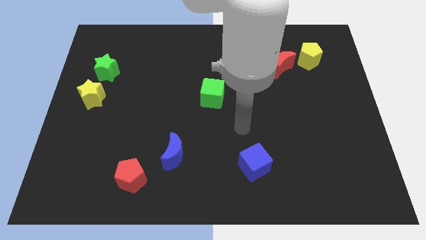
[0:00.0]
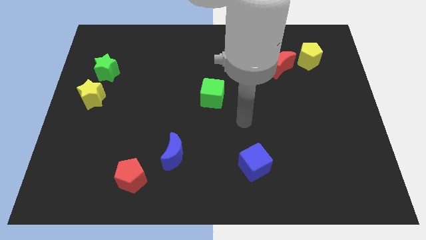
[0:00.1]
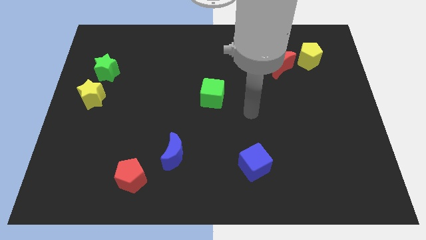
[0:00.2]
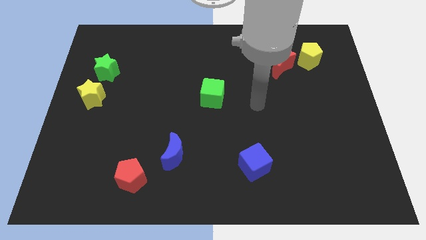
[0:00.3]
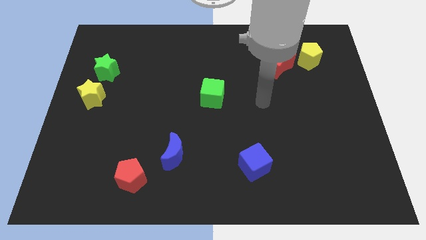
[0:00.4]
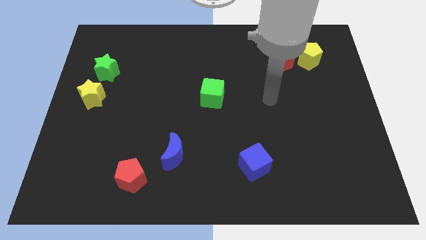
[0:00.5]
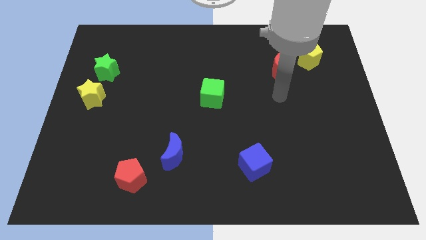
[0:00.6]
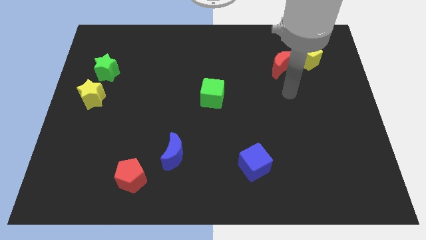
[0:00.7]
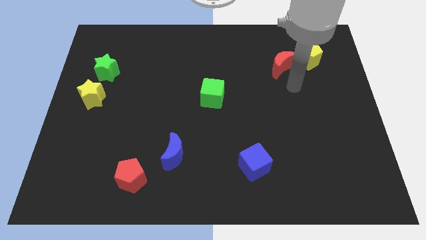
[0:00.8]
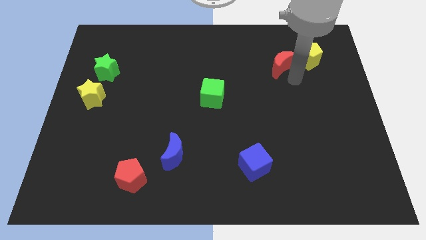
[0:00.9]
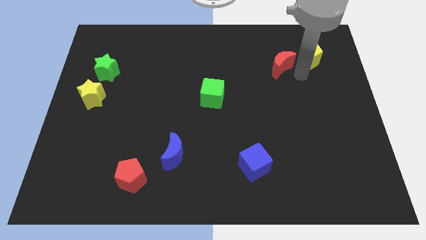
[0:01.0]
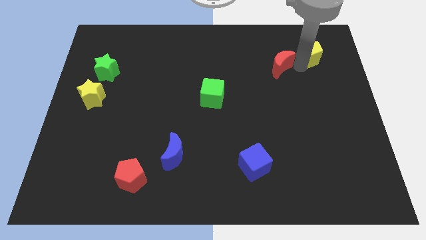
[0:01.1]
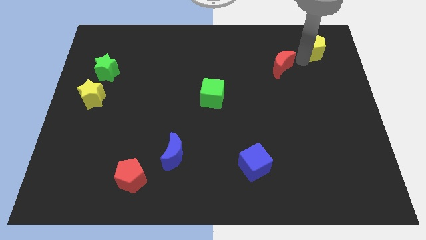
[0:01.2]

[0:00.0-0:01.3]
pull the red moon apart from the yellow pentagon

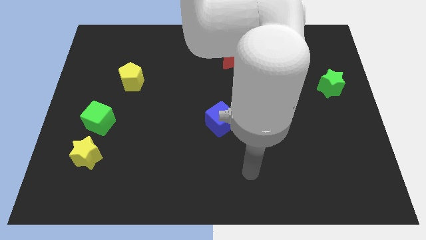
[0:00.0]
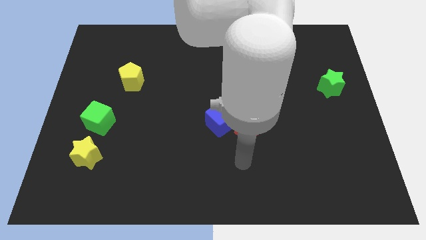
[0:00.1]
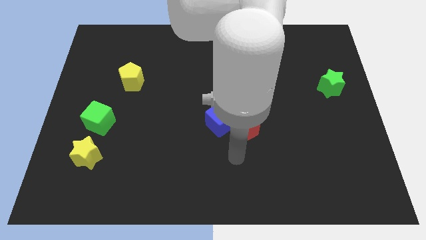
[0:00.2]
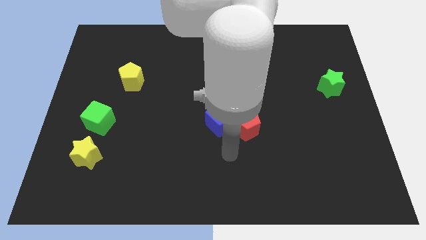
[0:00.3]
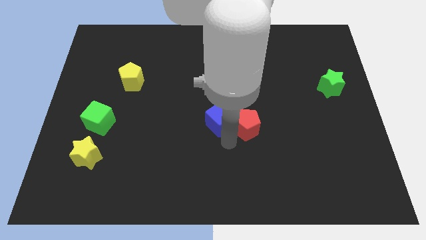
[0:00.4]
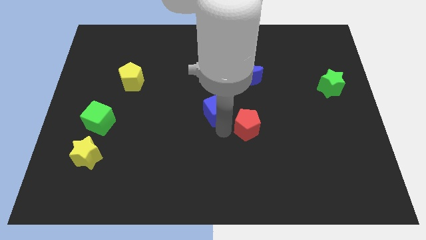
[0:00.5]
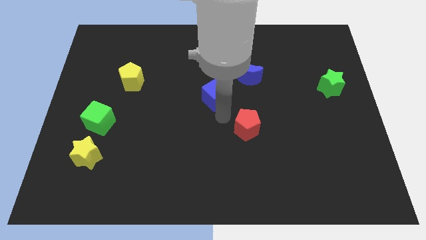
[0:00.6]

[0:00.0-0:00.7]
move the red pentagon away from the blue cube

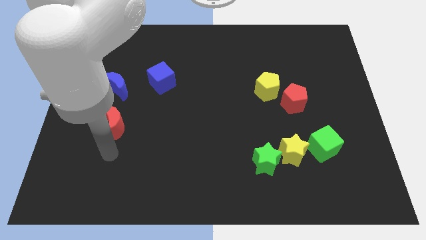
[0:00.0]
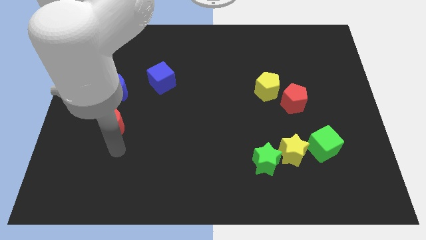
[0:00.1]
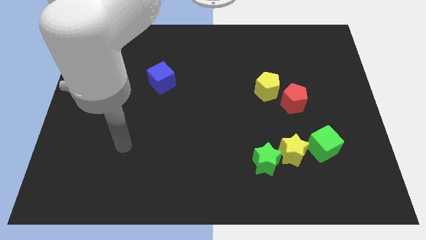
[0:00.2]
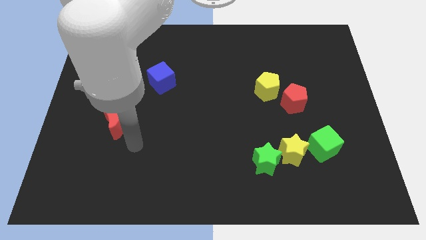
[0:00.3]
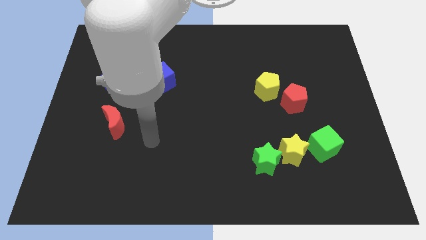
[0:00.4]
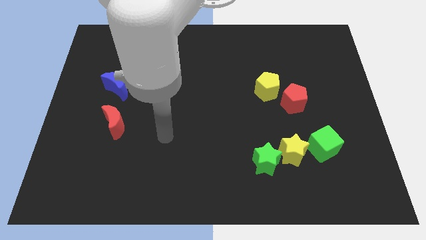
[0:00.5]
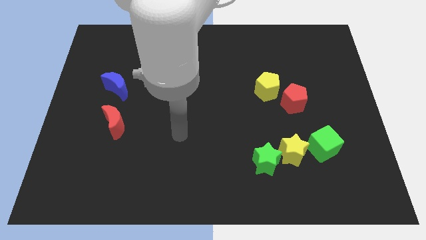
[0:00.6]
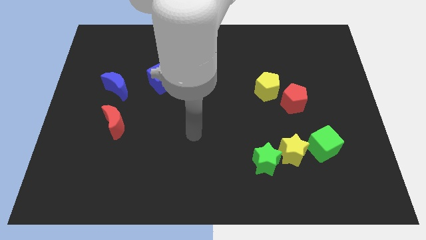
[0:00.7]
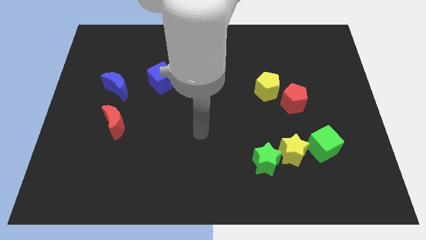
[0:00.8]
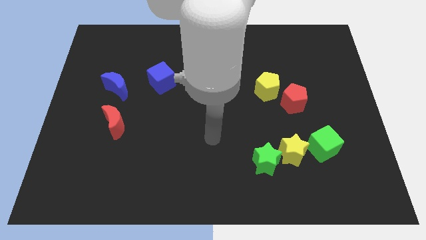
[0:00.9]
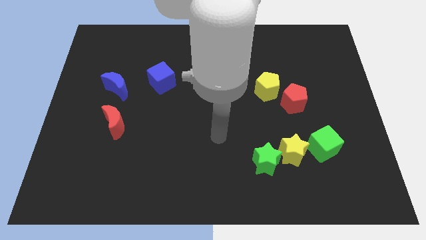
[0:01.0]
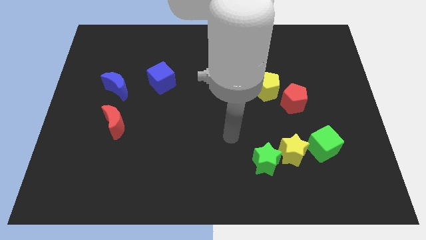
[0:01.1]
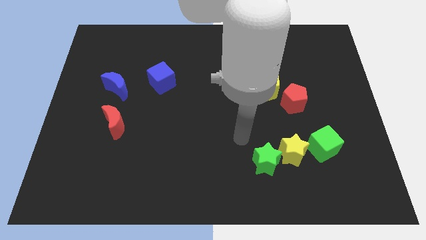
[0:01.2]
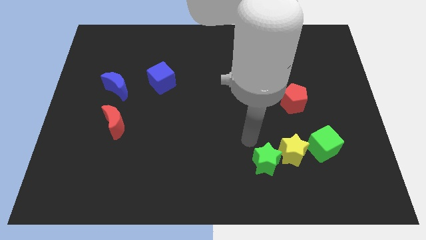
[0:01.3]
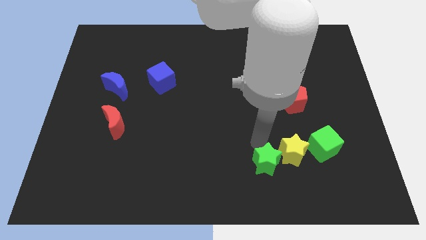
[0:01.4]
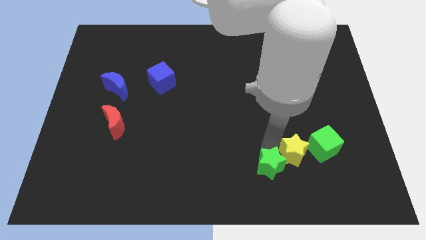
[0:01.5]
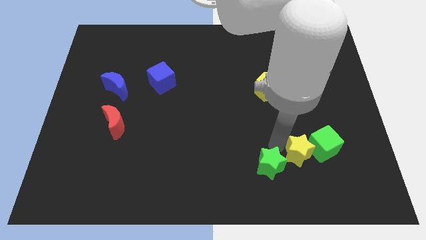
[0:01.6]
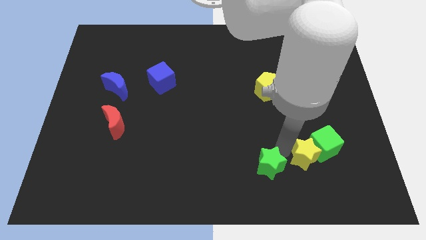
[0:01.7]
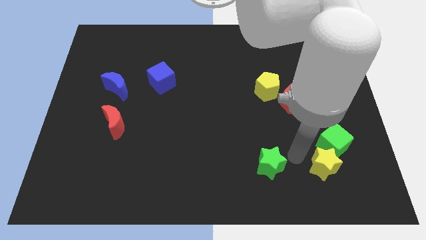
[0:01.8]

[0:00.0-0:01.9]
move the green star away from the yellow star

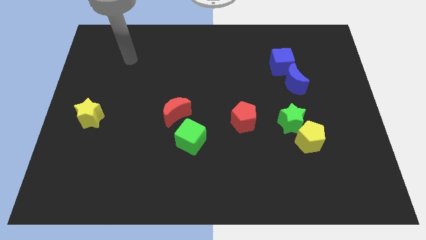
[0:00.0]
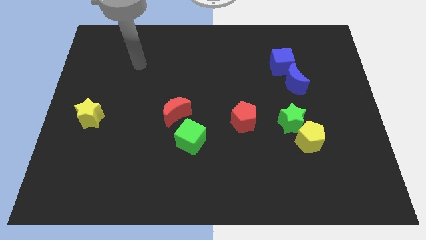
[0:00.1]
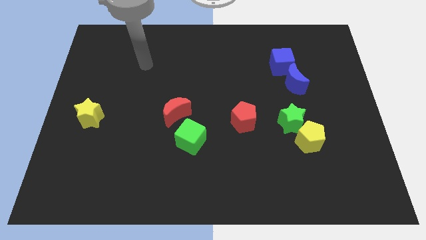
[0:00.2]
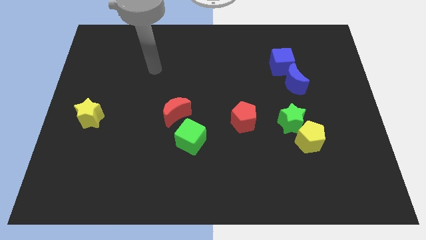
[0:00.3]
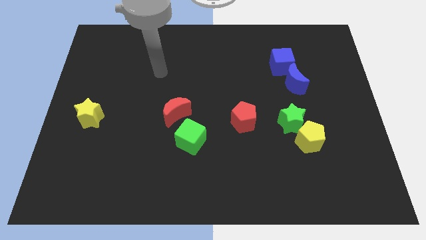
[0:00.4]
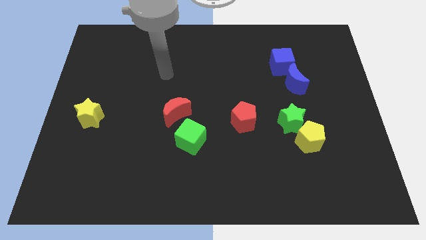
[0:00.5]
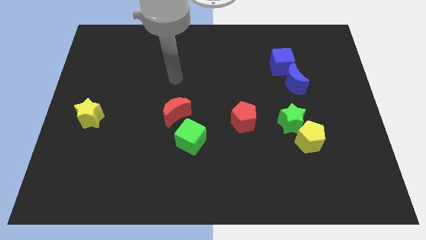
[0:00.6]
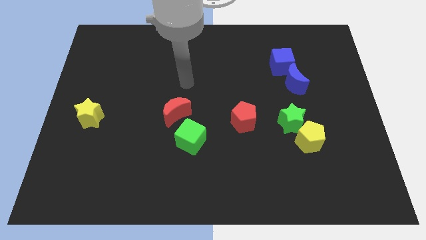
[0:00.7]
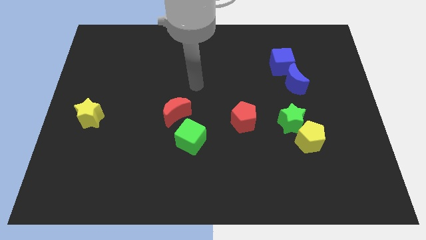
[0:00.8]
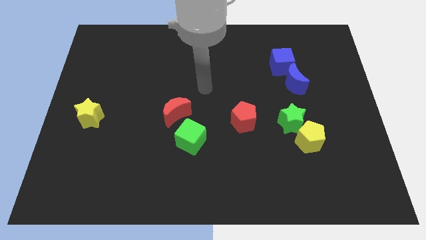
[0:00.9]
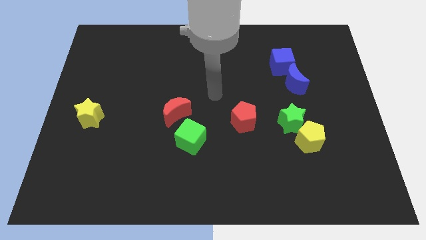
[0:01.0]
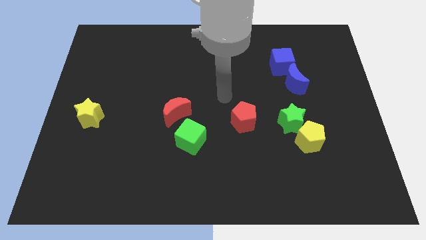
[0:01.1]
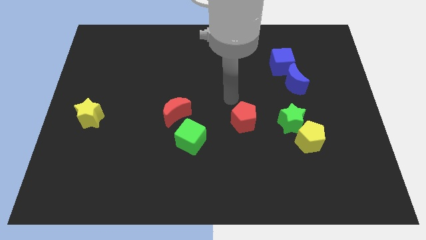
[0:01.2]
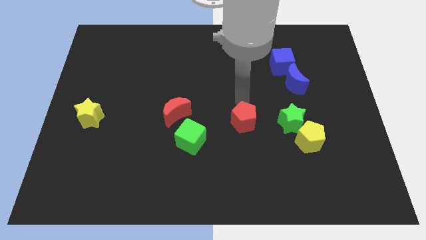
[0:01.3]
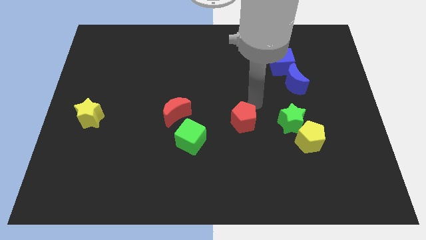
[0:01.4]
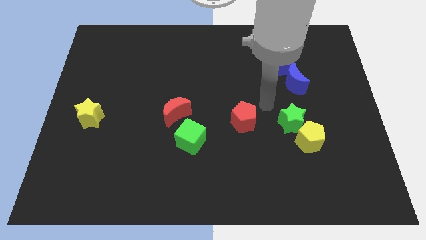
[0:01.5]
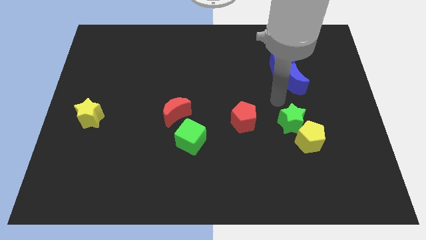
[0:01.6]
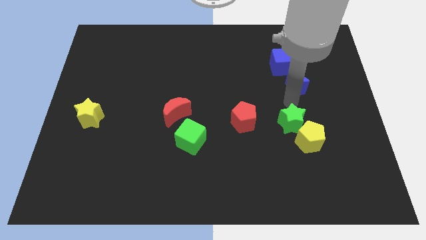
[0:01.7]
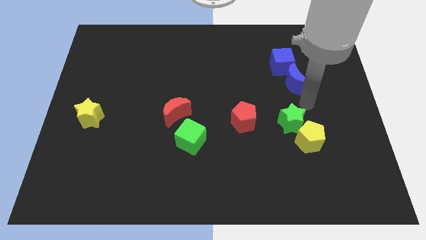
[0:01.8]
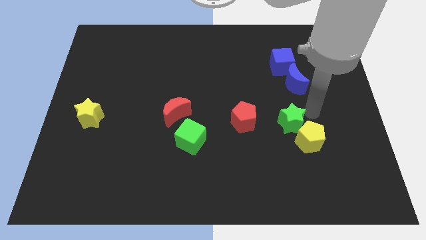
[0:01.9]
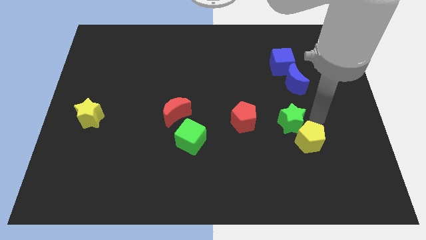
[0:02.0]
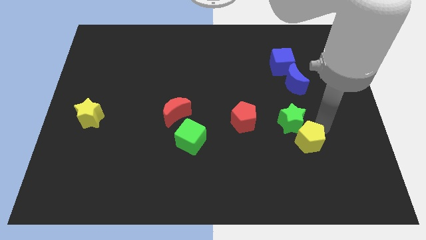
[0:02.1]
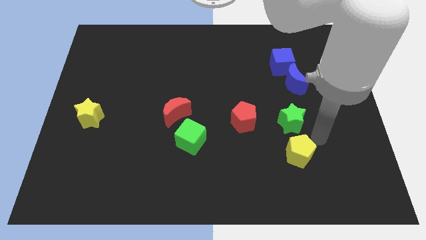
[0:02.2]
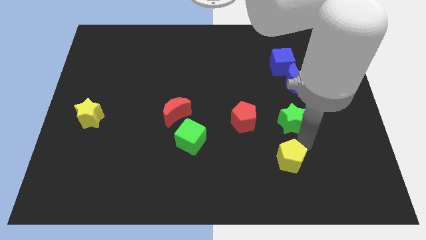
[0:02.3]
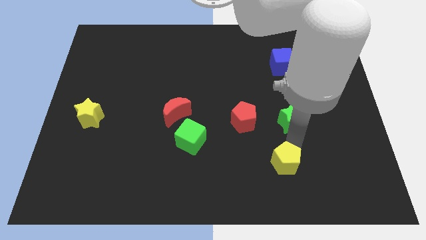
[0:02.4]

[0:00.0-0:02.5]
move the green star away from the yellow pentagon

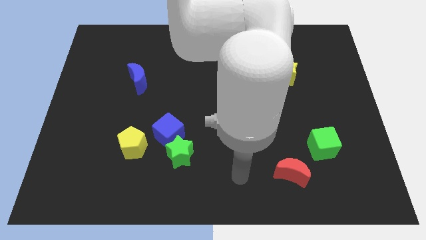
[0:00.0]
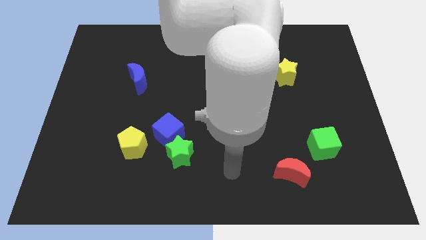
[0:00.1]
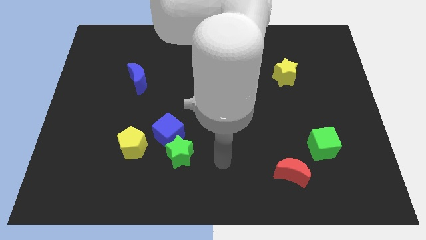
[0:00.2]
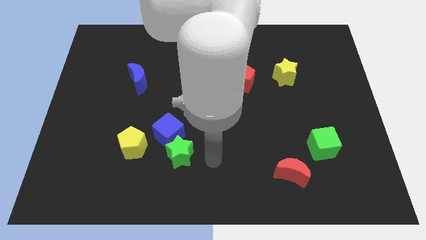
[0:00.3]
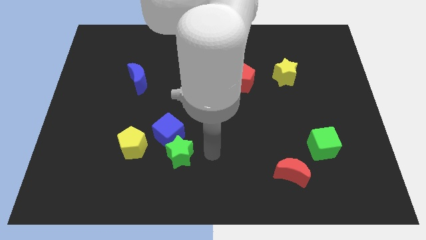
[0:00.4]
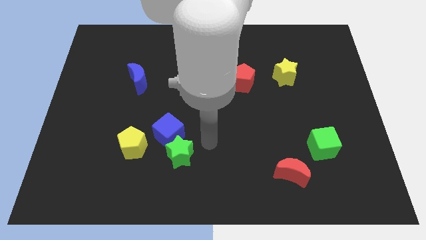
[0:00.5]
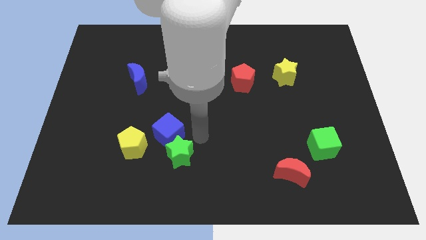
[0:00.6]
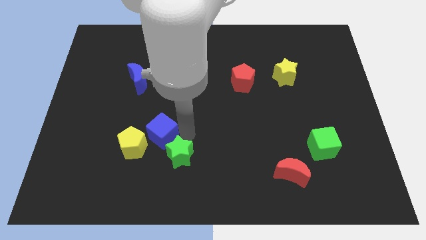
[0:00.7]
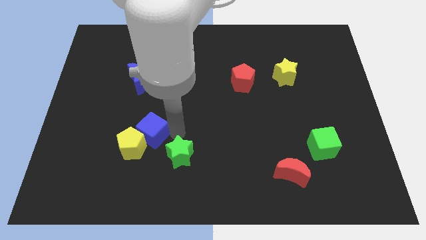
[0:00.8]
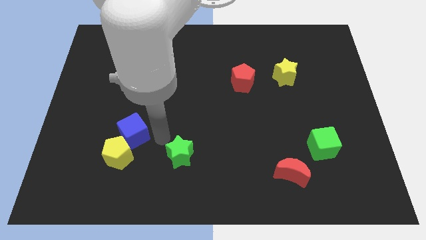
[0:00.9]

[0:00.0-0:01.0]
separate the green star from the blue cube

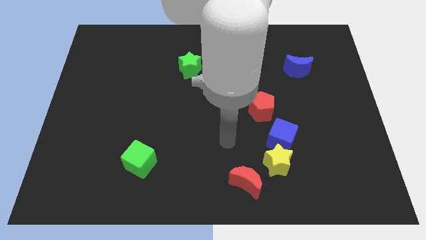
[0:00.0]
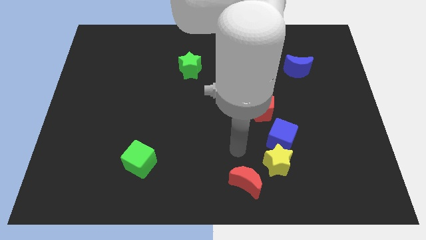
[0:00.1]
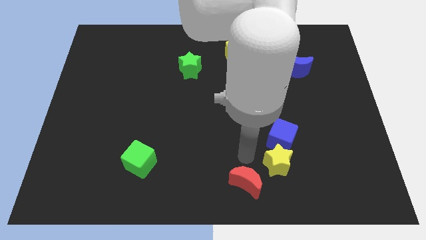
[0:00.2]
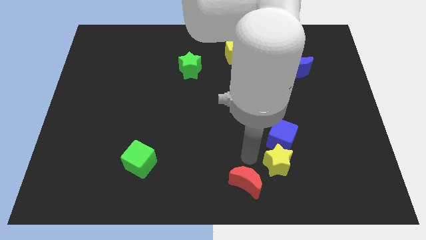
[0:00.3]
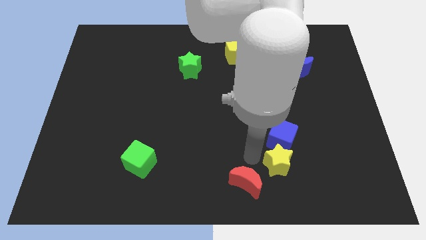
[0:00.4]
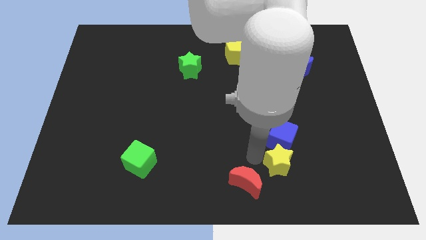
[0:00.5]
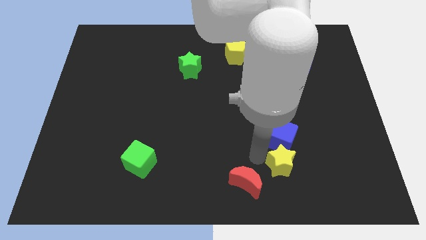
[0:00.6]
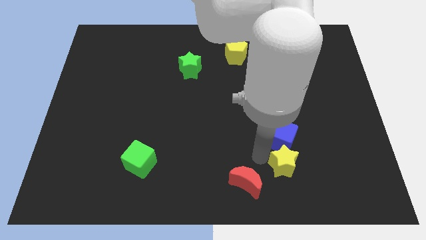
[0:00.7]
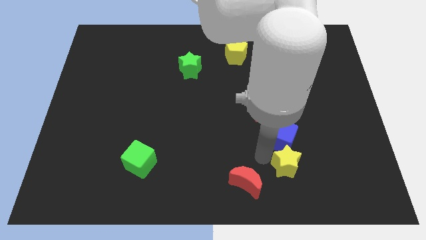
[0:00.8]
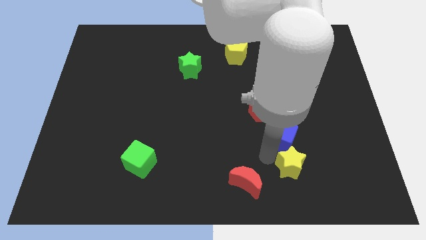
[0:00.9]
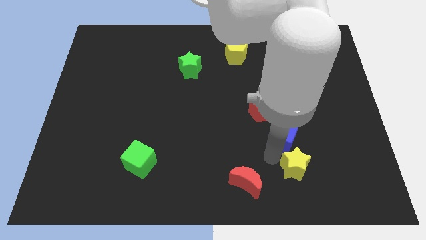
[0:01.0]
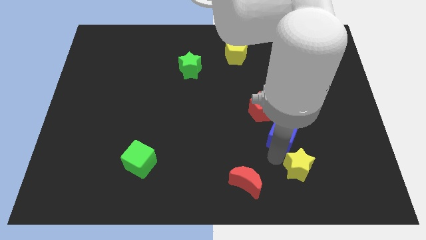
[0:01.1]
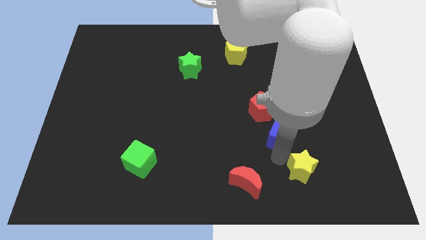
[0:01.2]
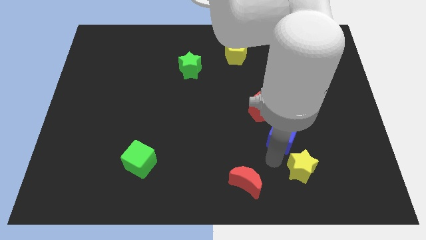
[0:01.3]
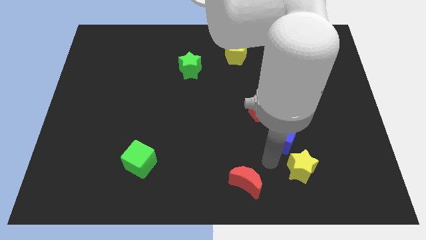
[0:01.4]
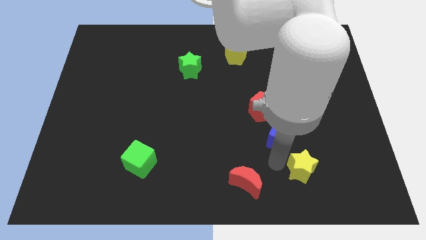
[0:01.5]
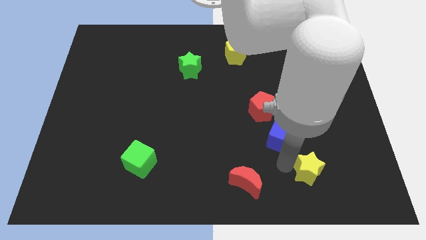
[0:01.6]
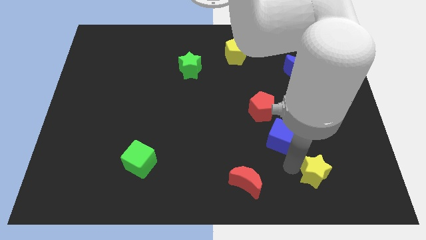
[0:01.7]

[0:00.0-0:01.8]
separate the yellow star from the blue cube and red moon
